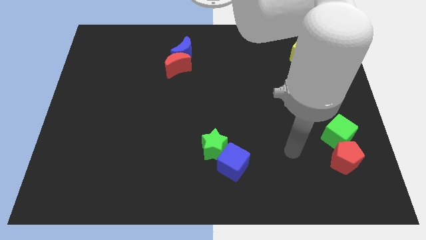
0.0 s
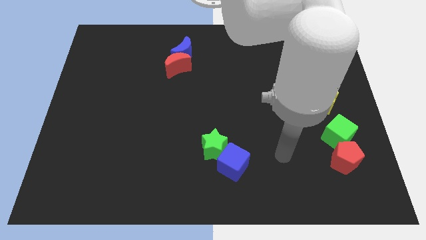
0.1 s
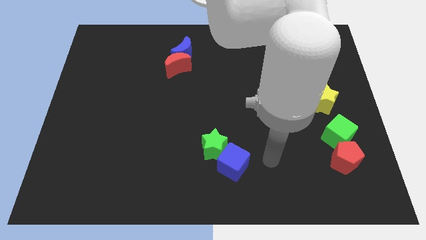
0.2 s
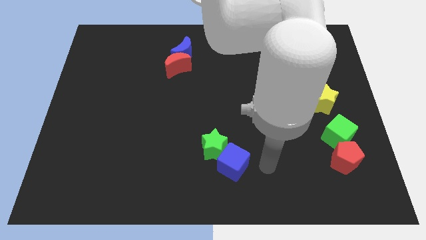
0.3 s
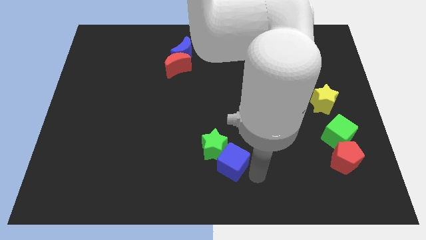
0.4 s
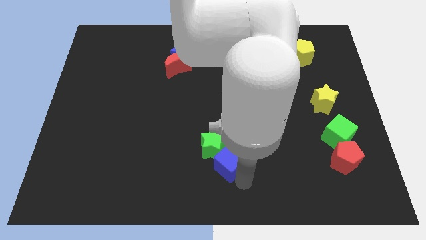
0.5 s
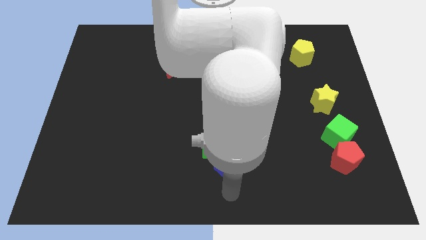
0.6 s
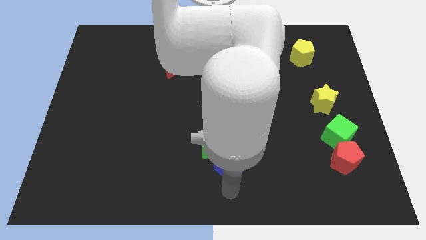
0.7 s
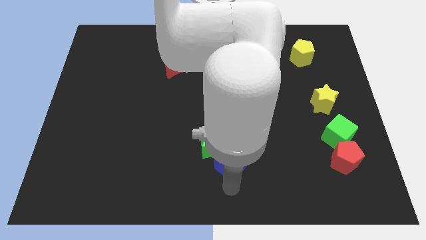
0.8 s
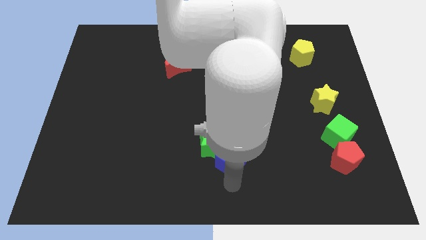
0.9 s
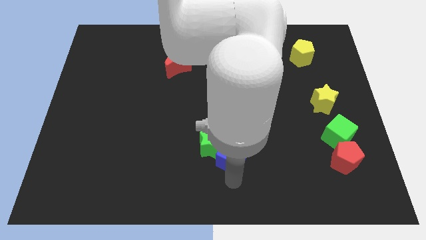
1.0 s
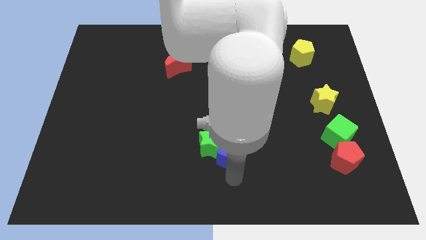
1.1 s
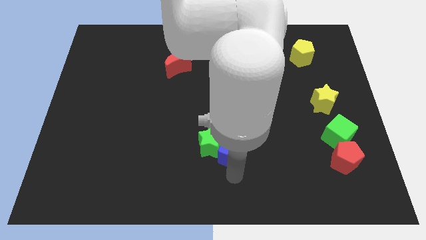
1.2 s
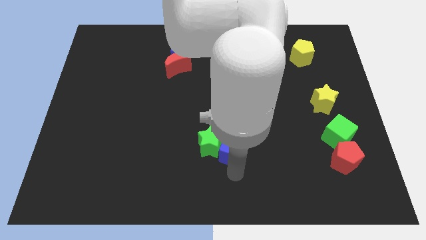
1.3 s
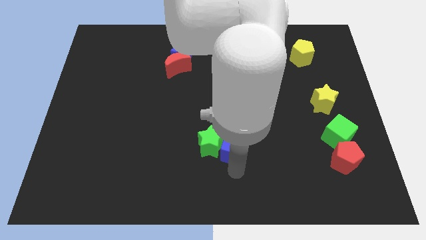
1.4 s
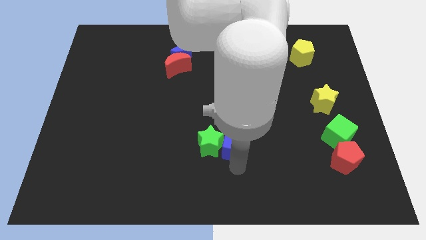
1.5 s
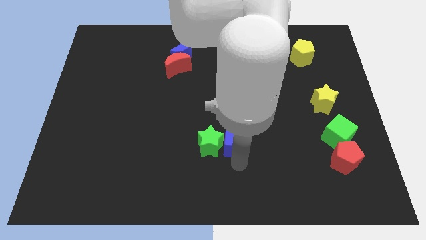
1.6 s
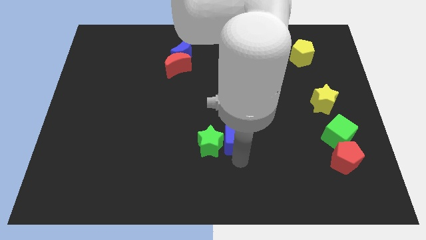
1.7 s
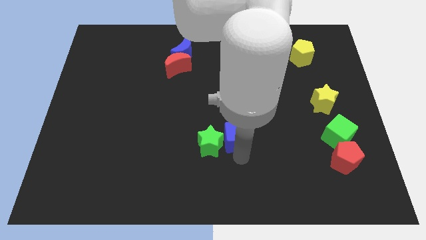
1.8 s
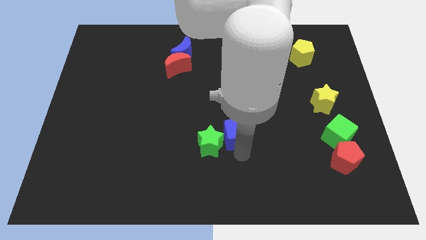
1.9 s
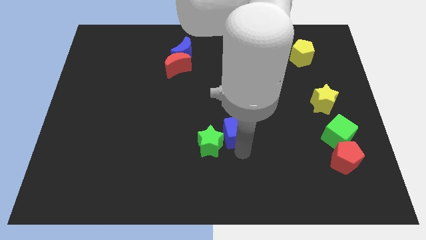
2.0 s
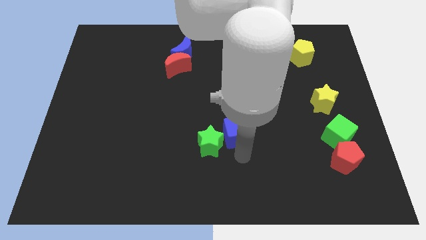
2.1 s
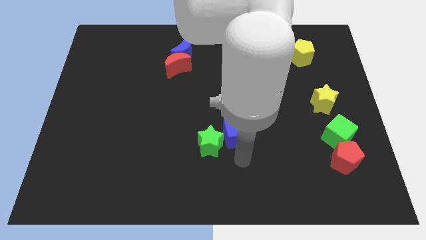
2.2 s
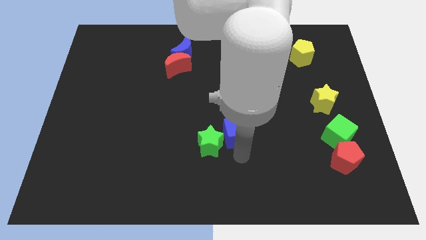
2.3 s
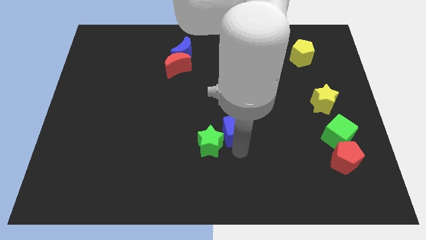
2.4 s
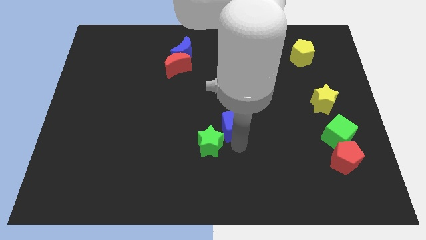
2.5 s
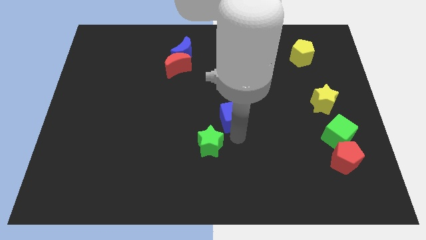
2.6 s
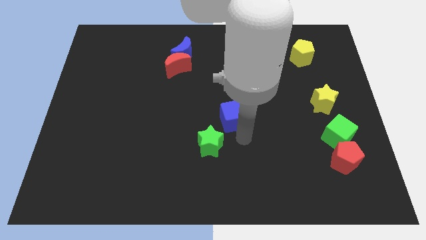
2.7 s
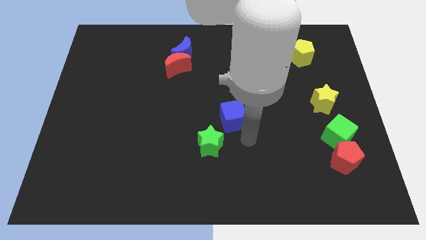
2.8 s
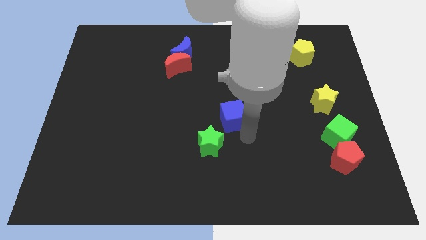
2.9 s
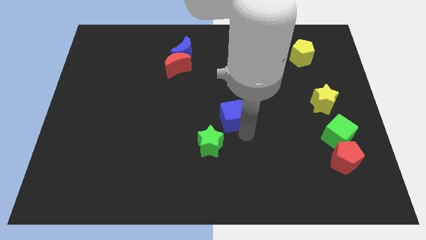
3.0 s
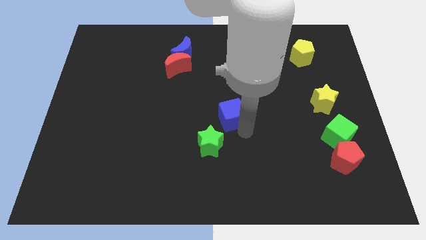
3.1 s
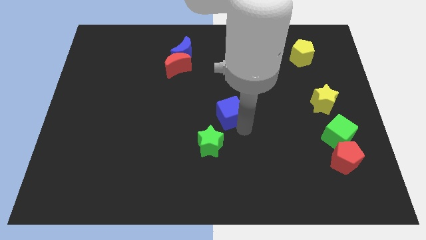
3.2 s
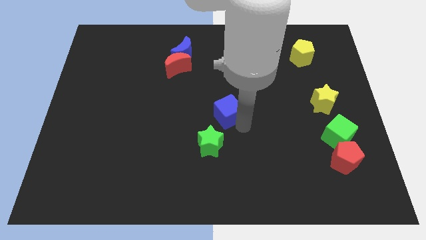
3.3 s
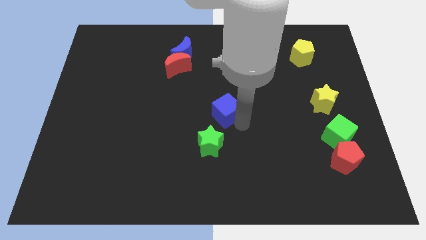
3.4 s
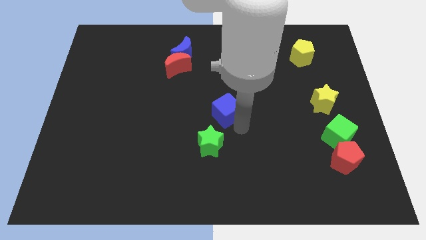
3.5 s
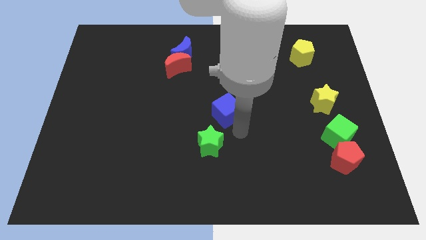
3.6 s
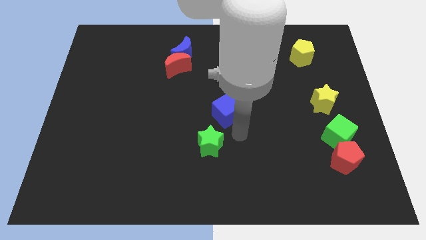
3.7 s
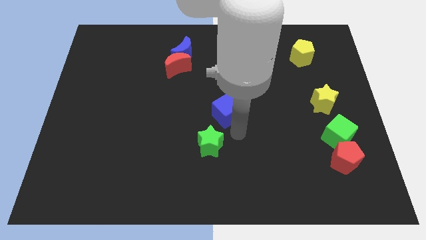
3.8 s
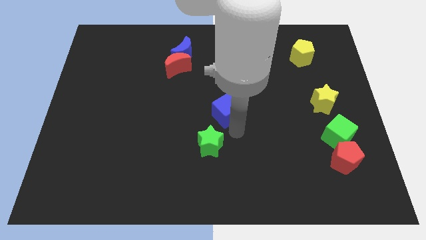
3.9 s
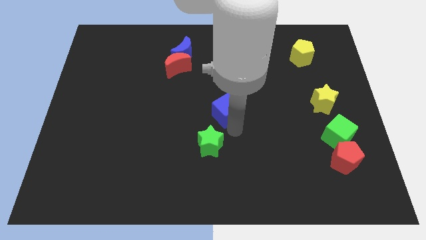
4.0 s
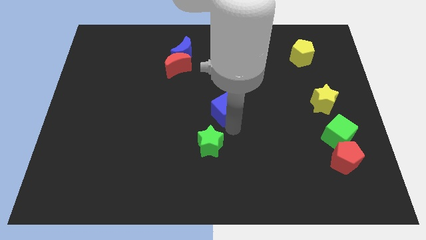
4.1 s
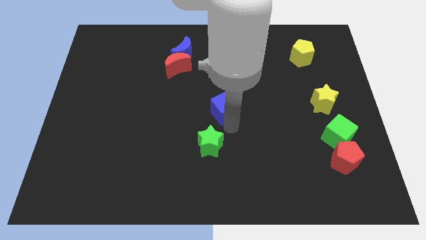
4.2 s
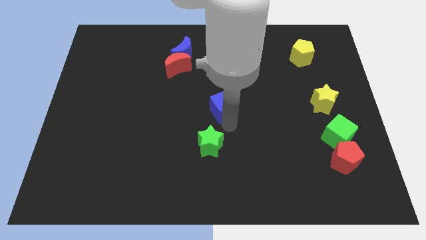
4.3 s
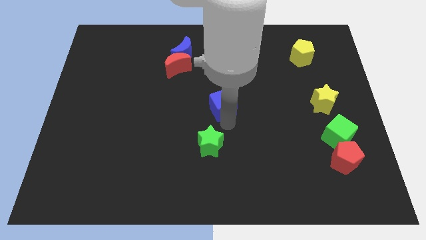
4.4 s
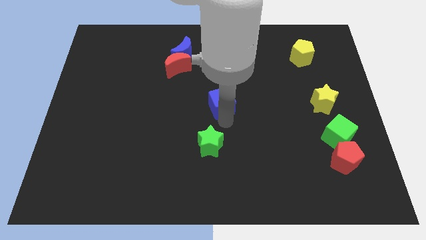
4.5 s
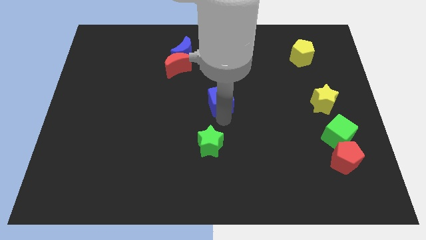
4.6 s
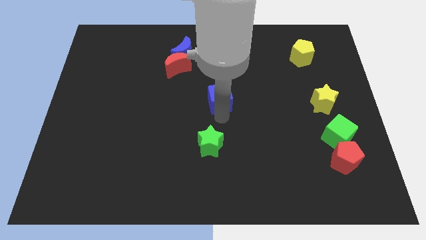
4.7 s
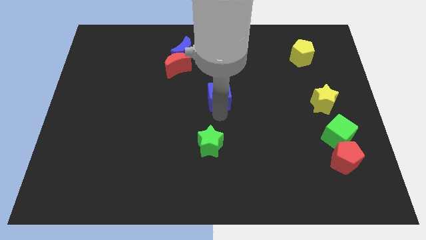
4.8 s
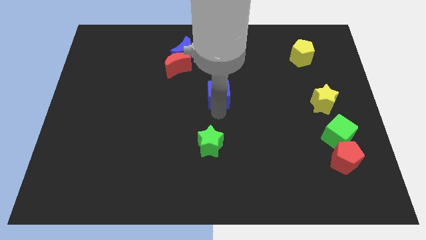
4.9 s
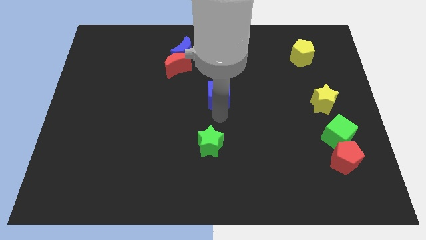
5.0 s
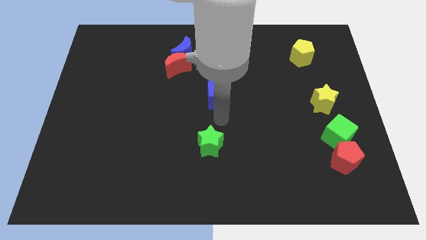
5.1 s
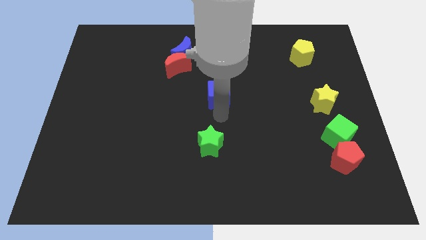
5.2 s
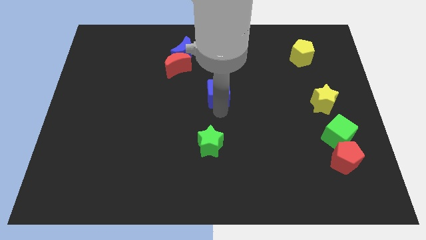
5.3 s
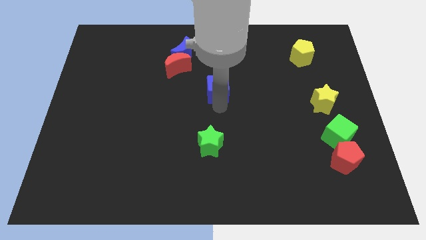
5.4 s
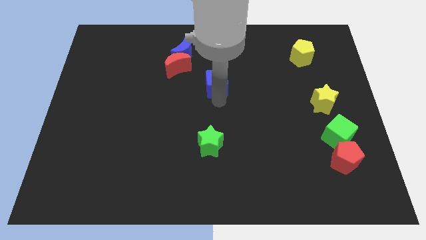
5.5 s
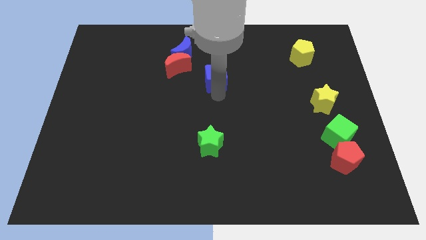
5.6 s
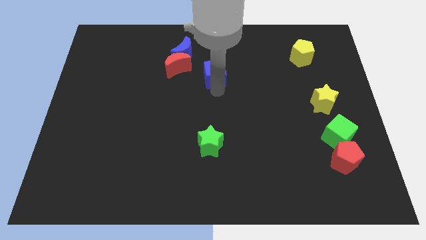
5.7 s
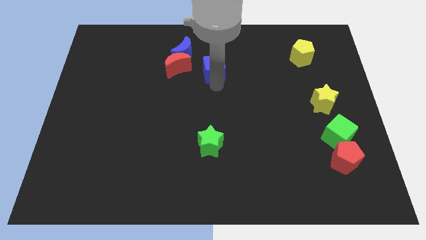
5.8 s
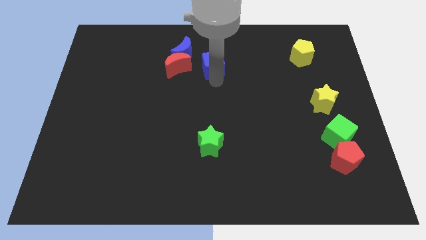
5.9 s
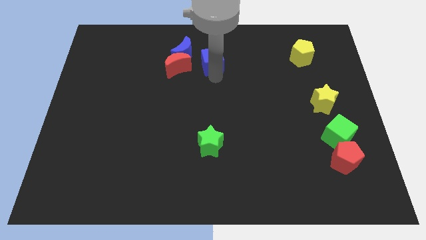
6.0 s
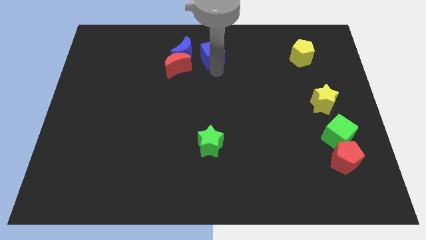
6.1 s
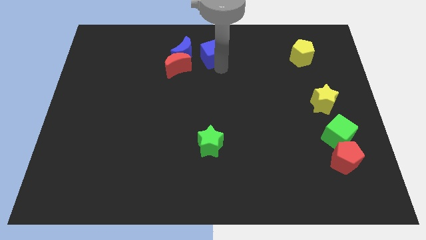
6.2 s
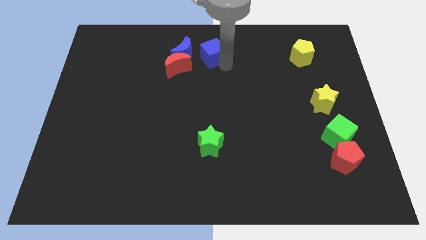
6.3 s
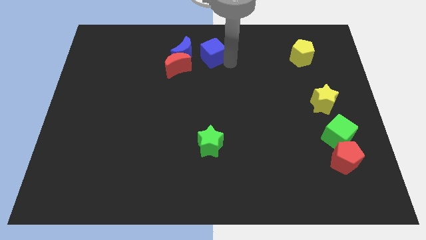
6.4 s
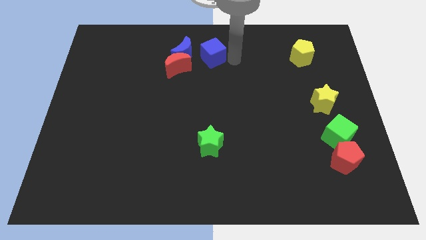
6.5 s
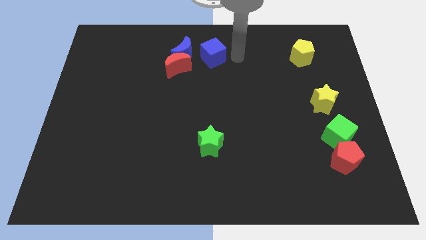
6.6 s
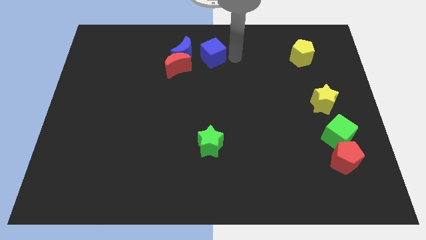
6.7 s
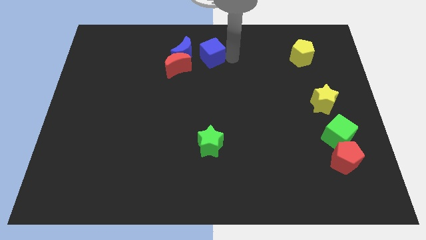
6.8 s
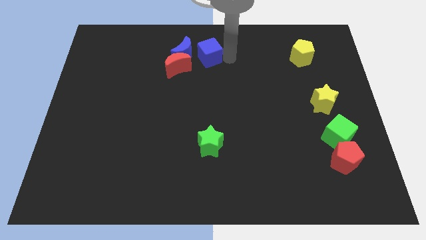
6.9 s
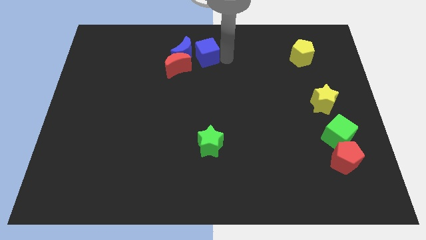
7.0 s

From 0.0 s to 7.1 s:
move the blue cube to the blue moon
